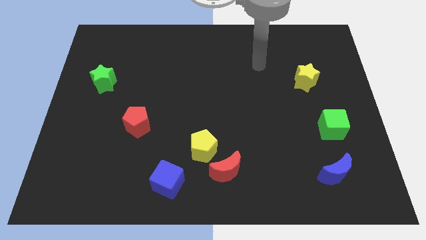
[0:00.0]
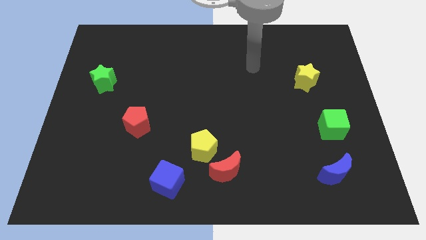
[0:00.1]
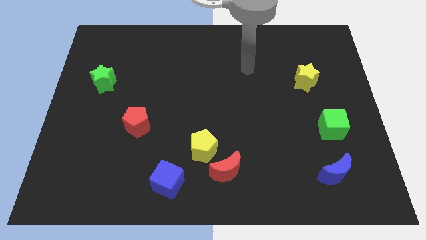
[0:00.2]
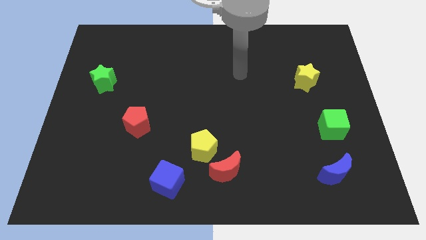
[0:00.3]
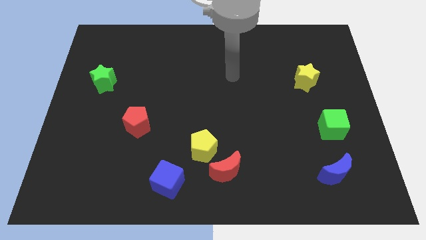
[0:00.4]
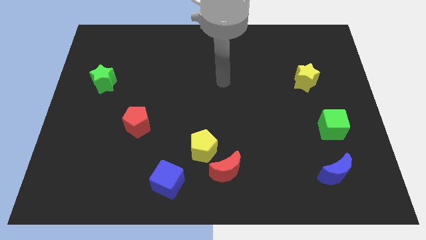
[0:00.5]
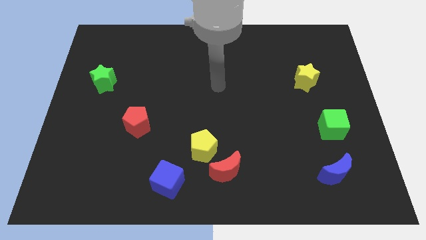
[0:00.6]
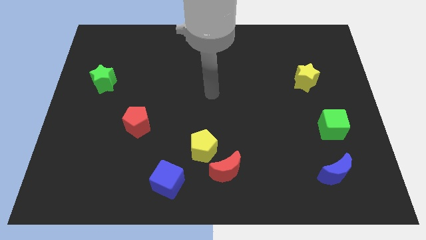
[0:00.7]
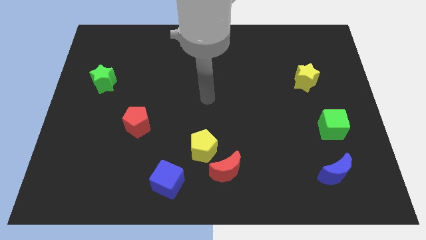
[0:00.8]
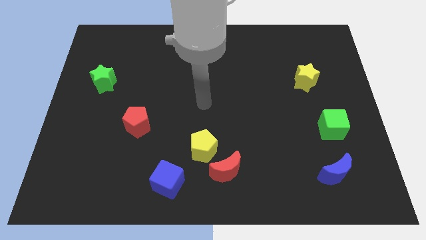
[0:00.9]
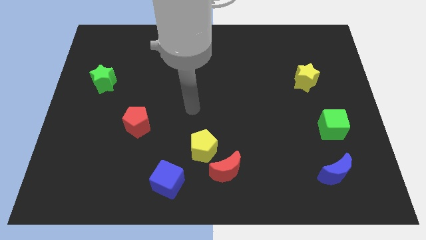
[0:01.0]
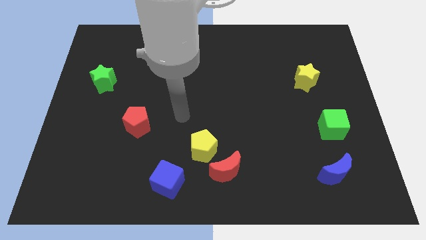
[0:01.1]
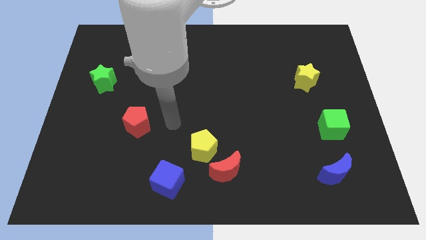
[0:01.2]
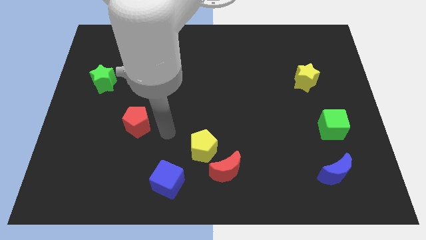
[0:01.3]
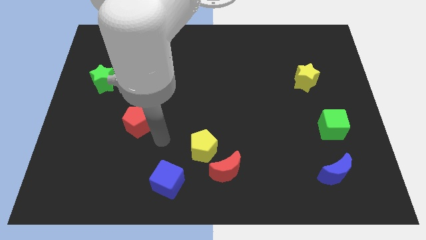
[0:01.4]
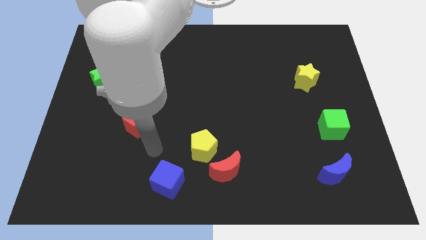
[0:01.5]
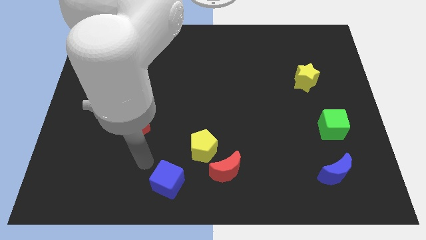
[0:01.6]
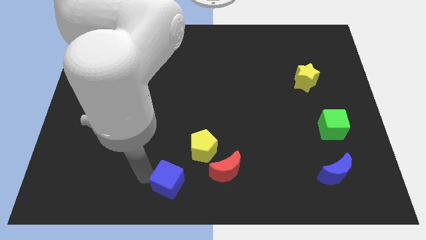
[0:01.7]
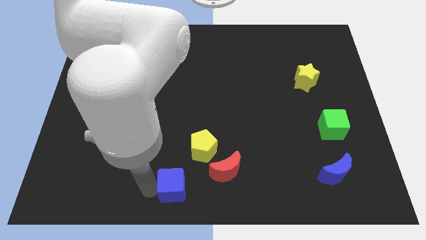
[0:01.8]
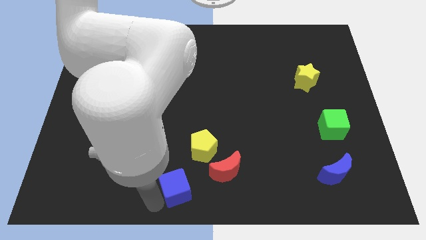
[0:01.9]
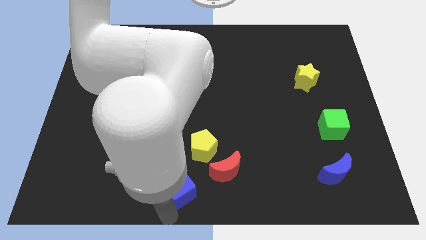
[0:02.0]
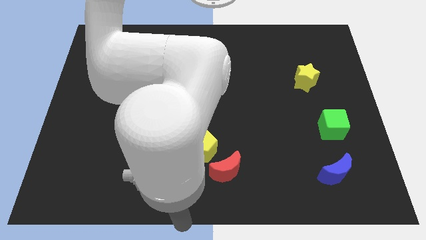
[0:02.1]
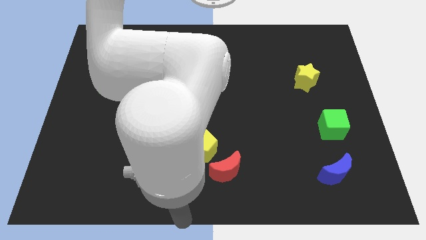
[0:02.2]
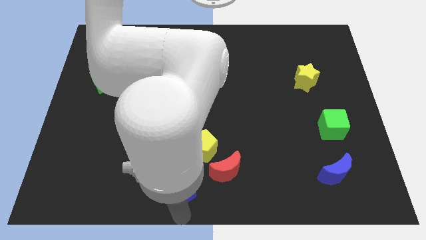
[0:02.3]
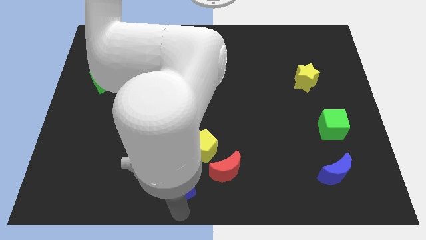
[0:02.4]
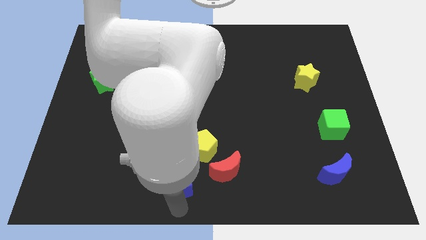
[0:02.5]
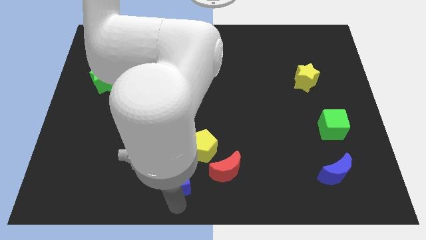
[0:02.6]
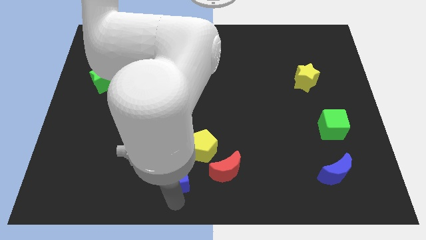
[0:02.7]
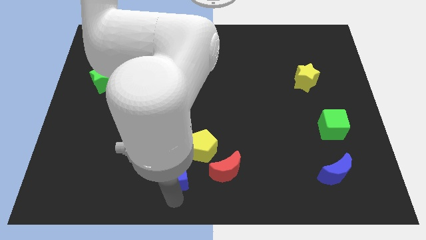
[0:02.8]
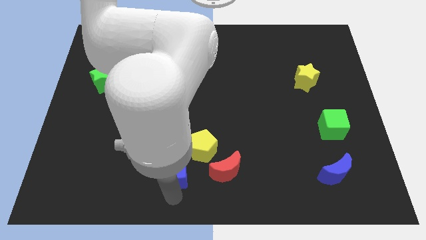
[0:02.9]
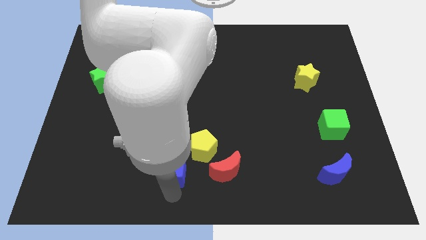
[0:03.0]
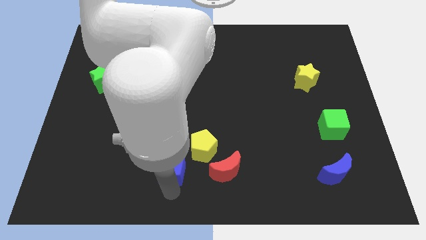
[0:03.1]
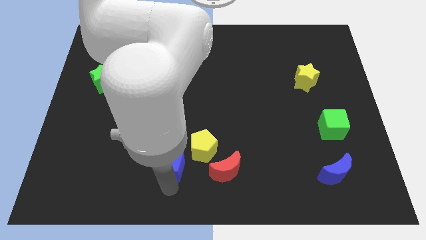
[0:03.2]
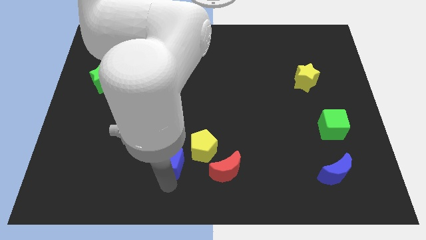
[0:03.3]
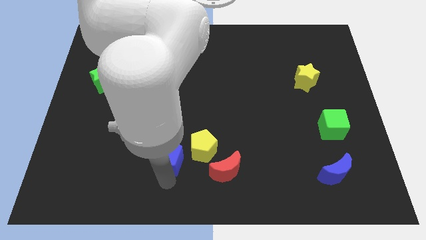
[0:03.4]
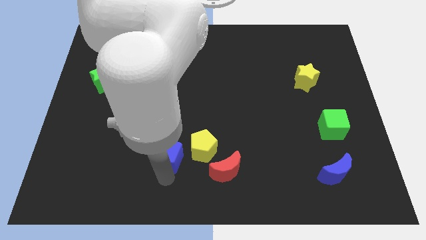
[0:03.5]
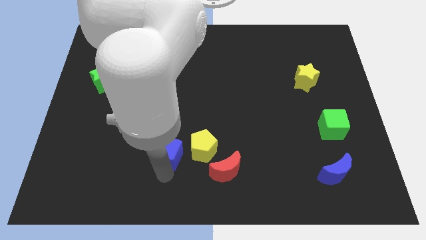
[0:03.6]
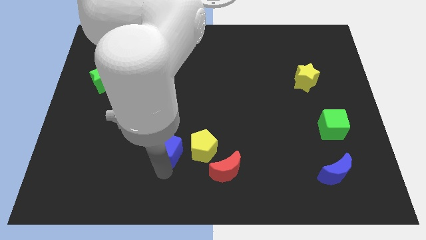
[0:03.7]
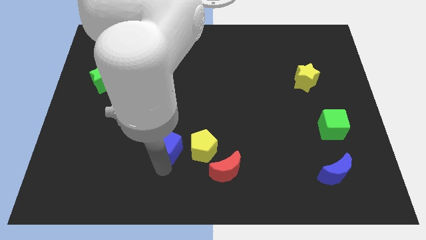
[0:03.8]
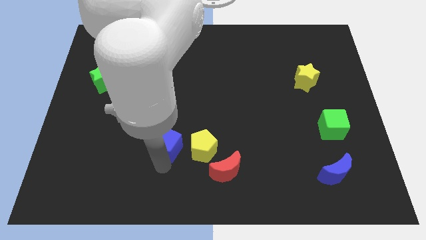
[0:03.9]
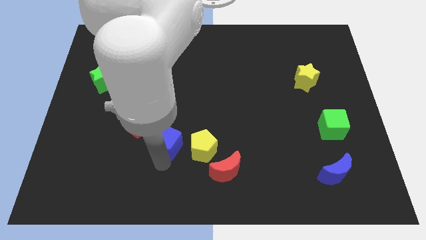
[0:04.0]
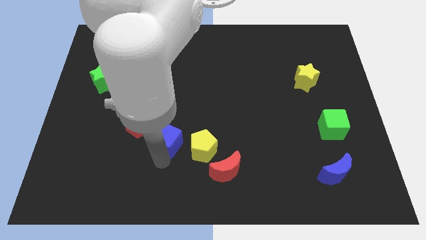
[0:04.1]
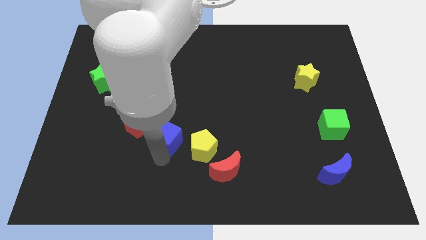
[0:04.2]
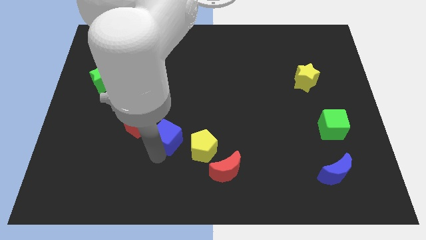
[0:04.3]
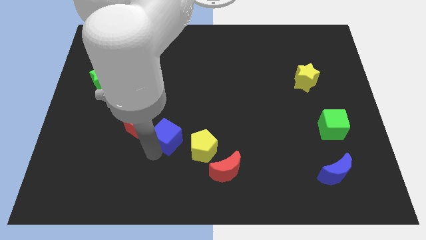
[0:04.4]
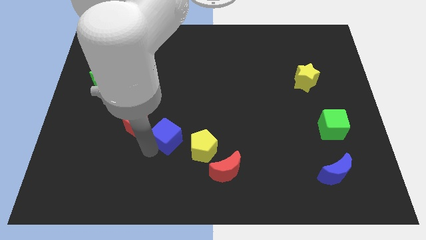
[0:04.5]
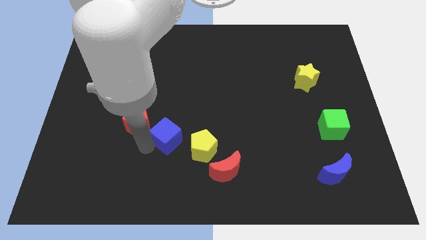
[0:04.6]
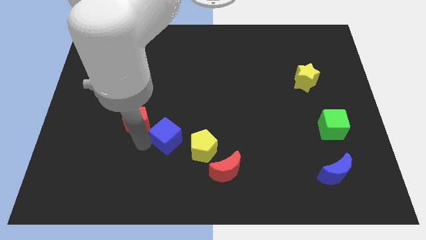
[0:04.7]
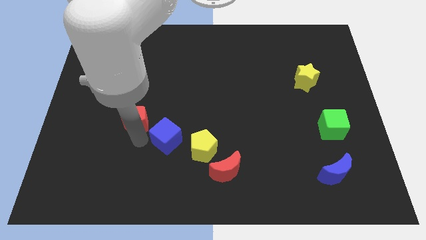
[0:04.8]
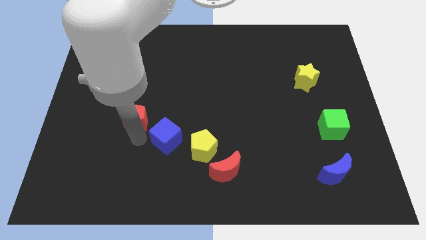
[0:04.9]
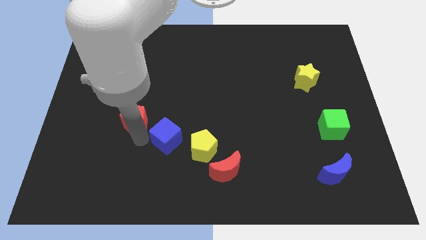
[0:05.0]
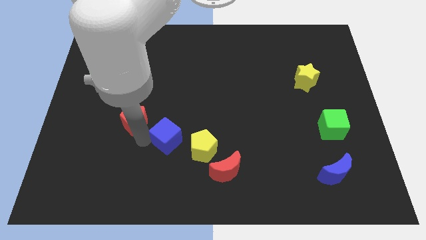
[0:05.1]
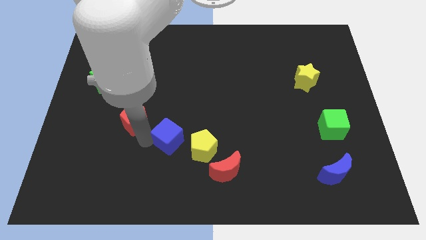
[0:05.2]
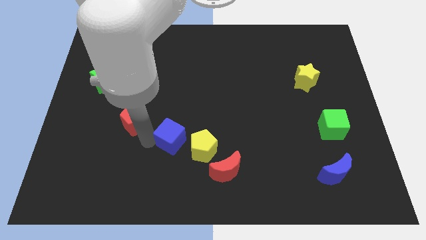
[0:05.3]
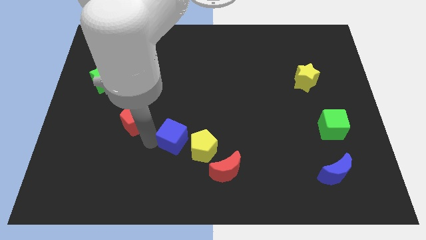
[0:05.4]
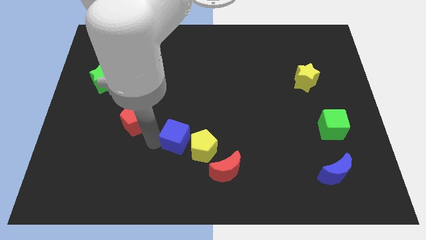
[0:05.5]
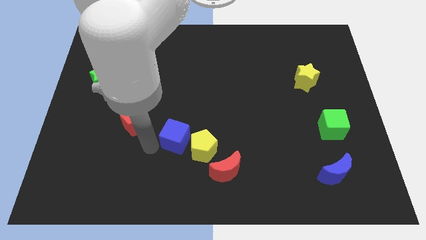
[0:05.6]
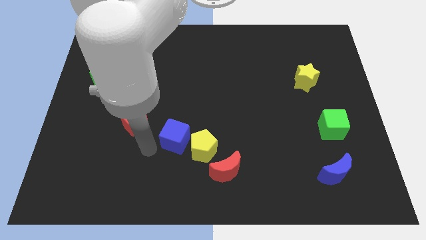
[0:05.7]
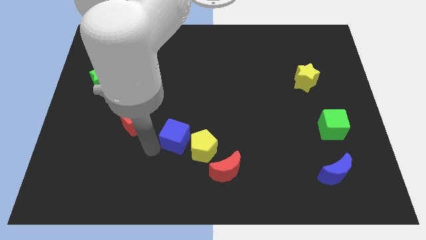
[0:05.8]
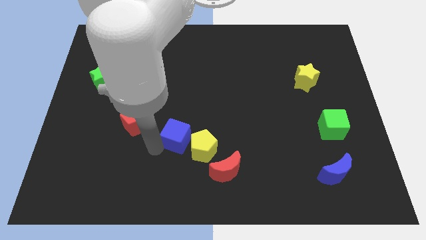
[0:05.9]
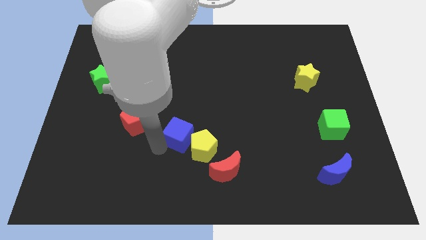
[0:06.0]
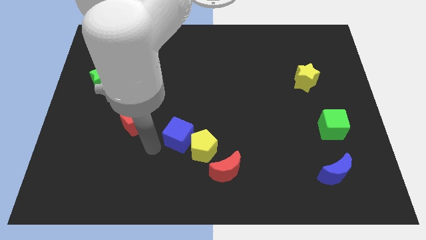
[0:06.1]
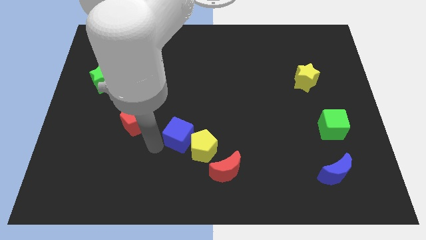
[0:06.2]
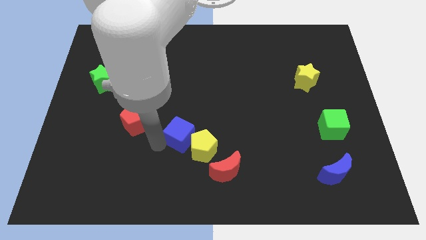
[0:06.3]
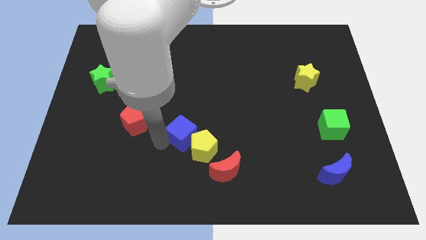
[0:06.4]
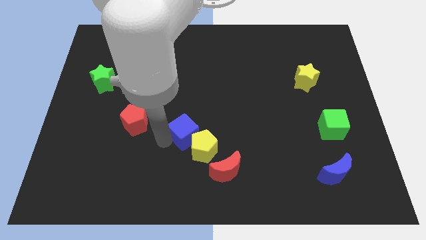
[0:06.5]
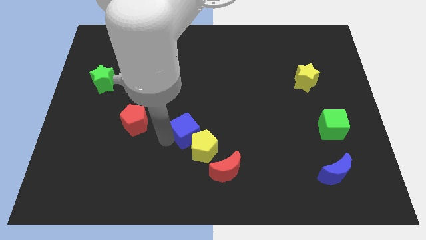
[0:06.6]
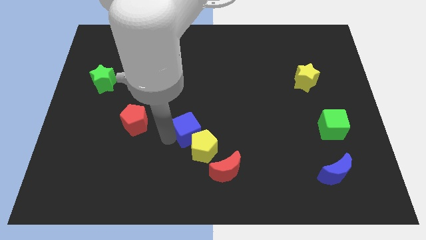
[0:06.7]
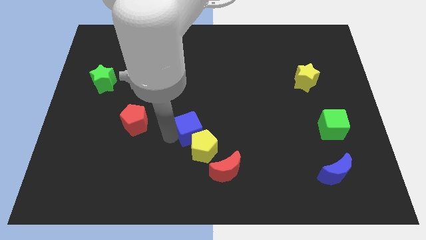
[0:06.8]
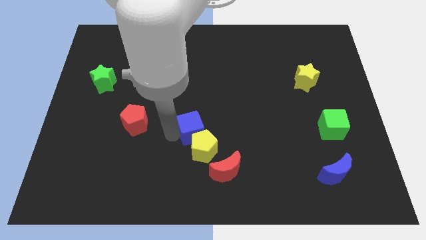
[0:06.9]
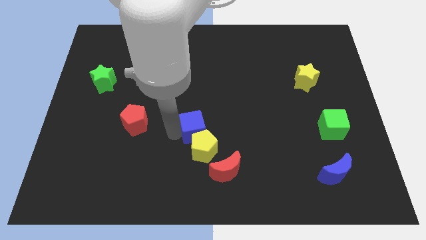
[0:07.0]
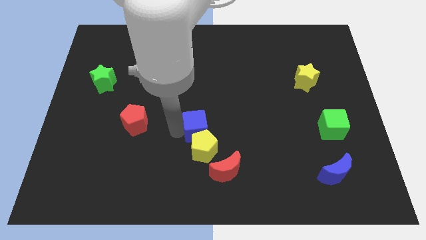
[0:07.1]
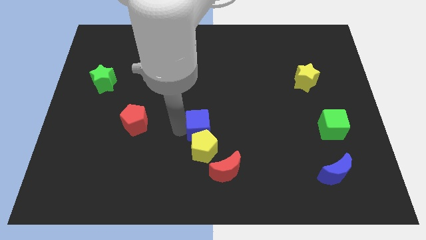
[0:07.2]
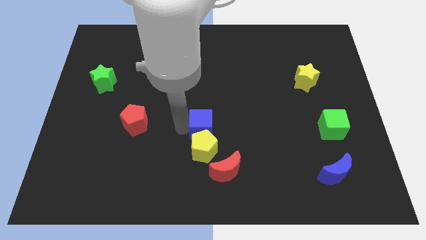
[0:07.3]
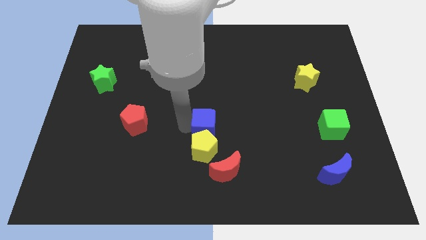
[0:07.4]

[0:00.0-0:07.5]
put the blue cube to the top side of the red moon
